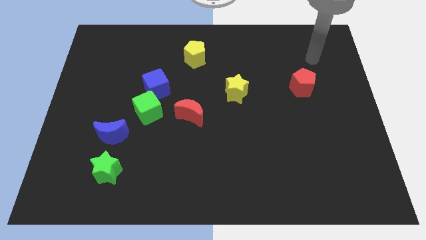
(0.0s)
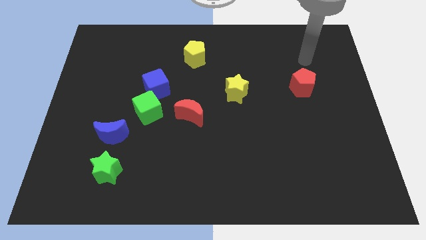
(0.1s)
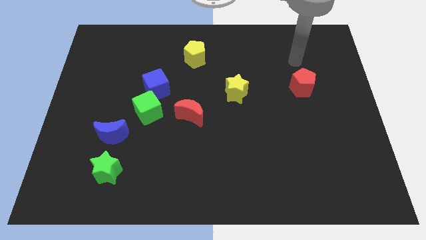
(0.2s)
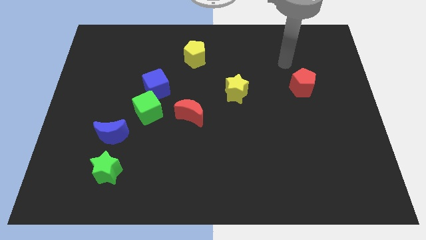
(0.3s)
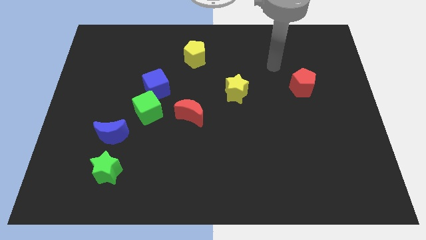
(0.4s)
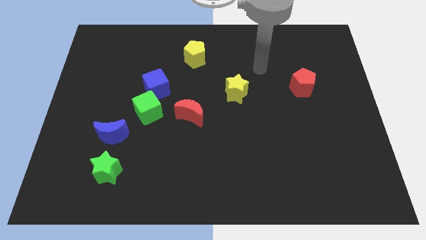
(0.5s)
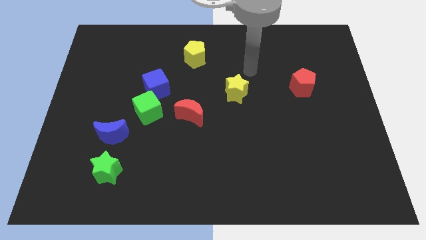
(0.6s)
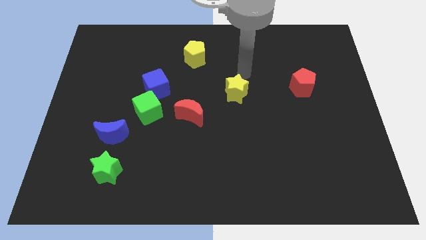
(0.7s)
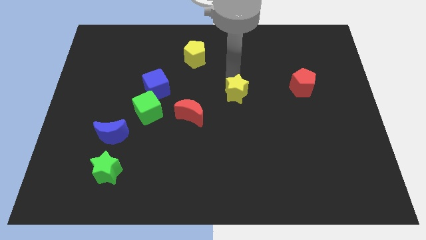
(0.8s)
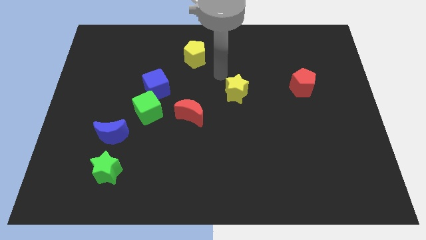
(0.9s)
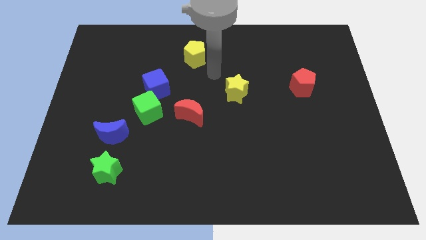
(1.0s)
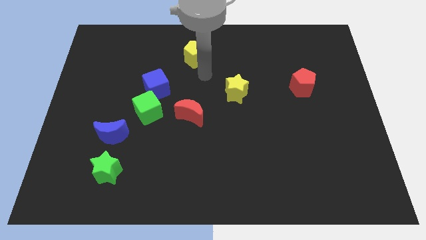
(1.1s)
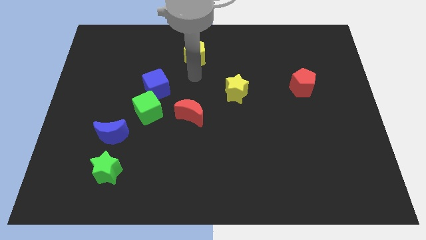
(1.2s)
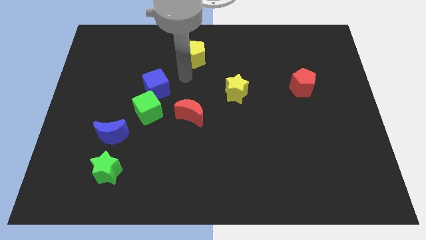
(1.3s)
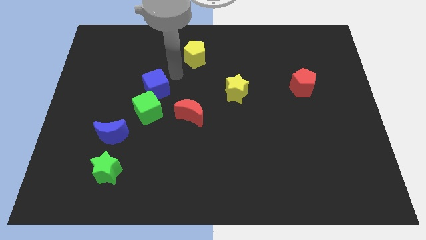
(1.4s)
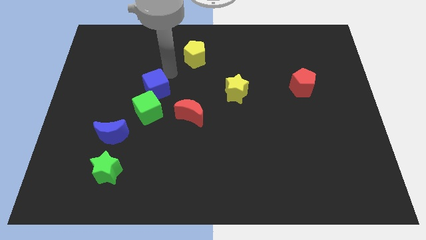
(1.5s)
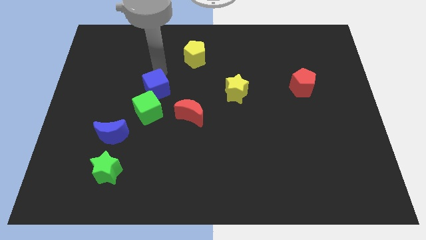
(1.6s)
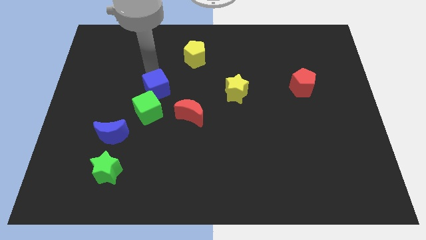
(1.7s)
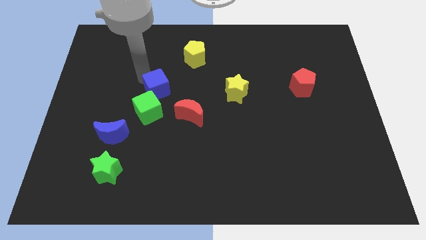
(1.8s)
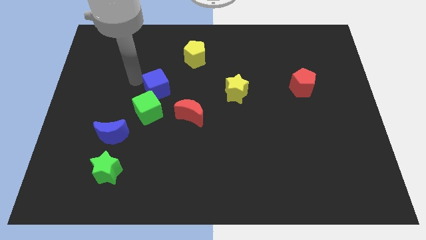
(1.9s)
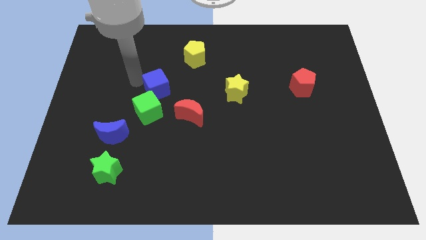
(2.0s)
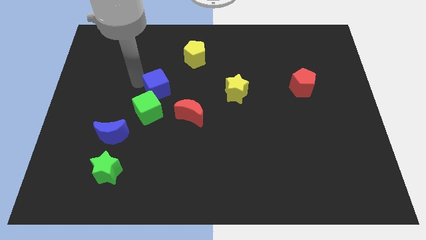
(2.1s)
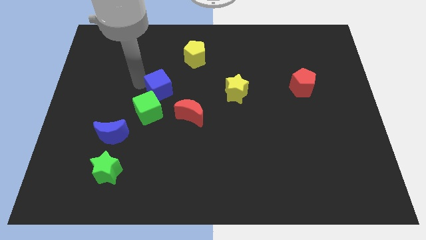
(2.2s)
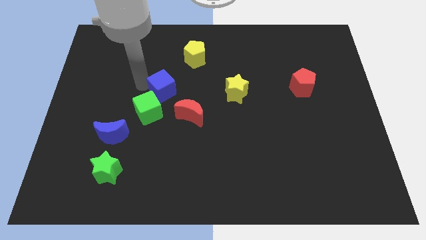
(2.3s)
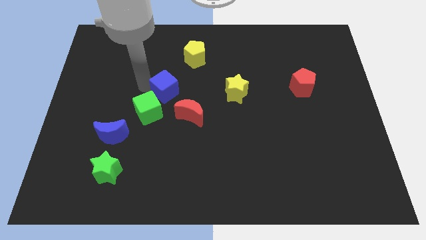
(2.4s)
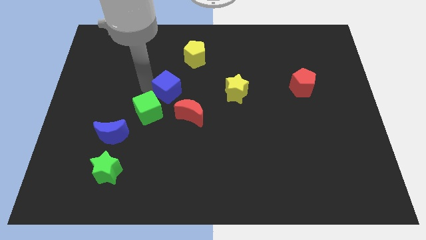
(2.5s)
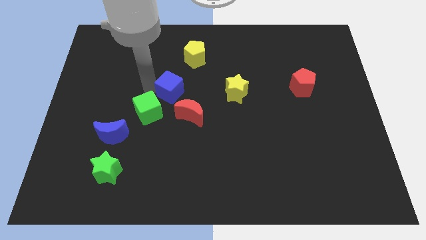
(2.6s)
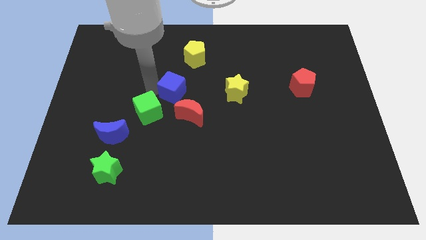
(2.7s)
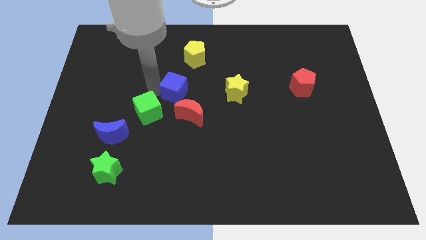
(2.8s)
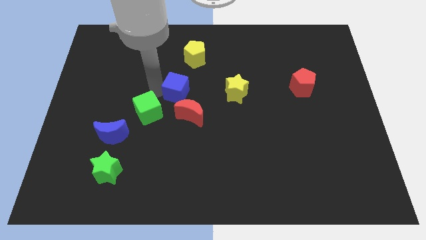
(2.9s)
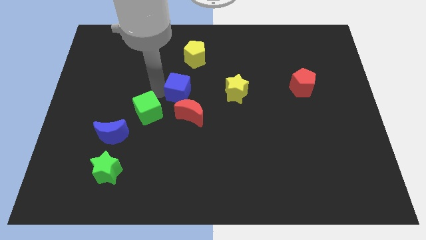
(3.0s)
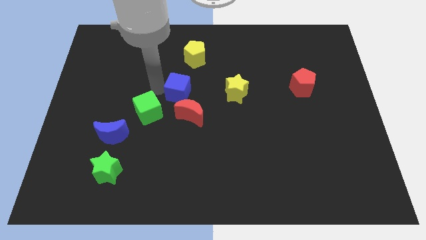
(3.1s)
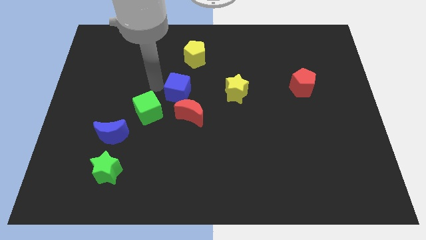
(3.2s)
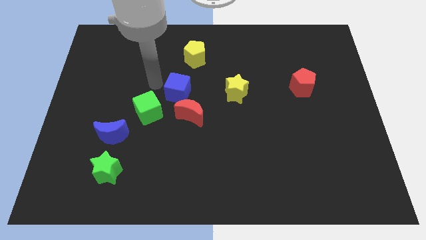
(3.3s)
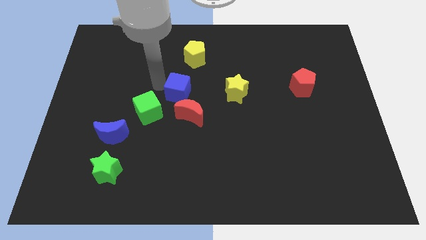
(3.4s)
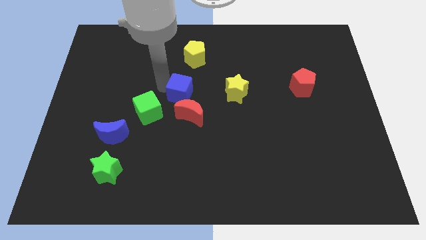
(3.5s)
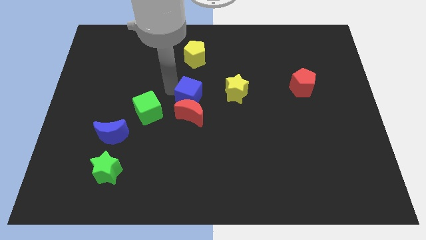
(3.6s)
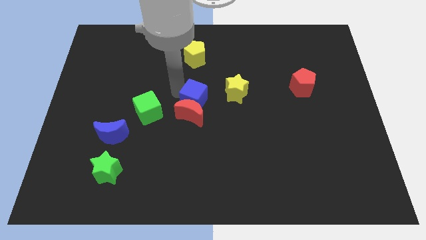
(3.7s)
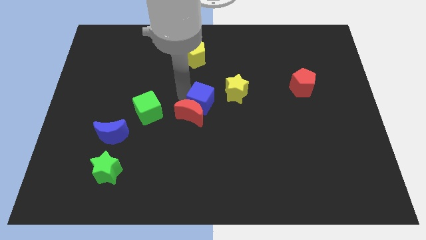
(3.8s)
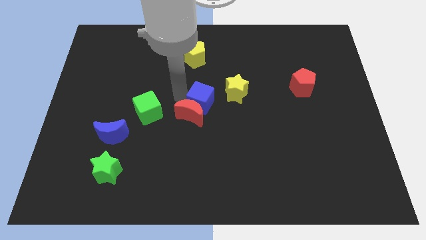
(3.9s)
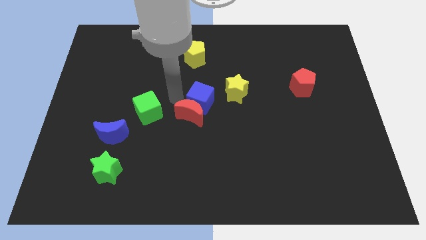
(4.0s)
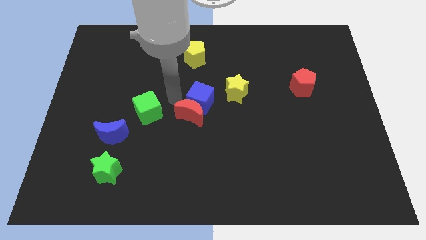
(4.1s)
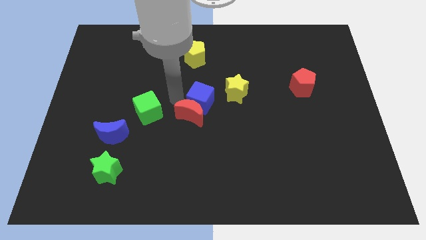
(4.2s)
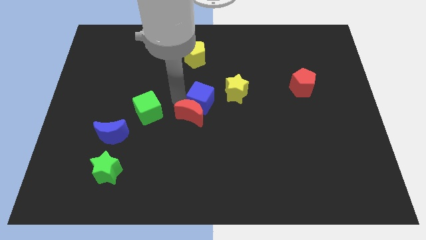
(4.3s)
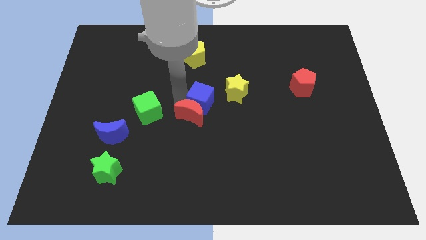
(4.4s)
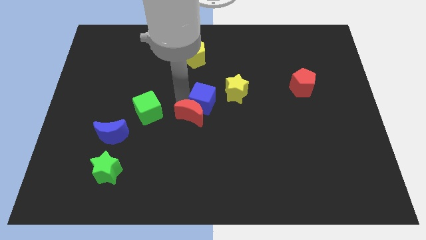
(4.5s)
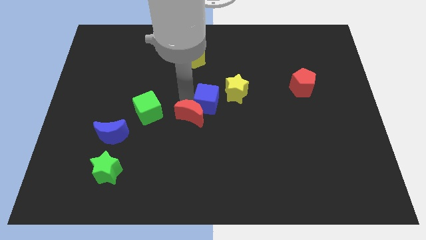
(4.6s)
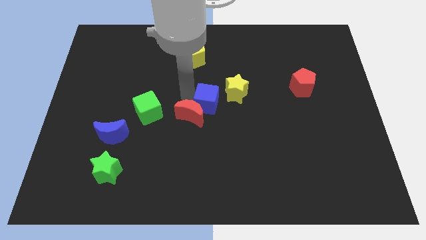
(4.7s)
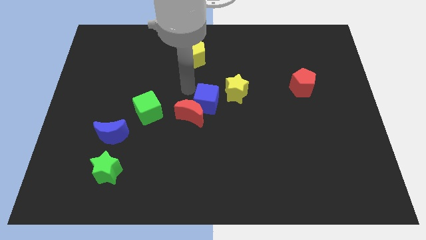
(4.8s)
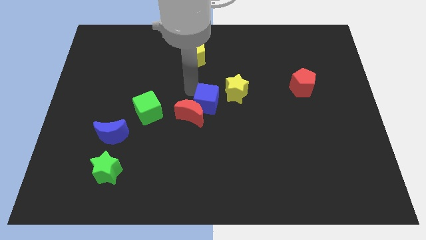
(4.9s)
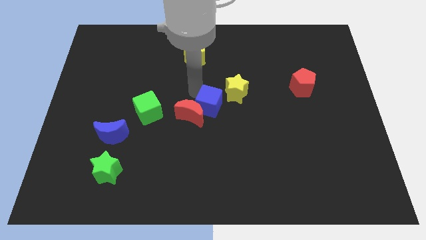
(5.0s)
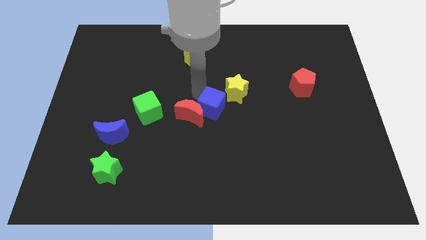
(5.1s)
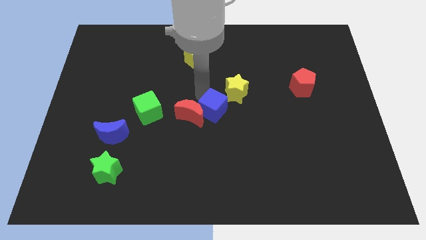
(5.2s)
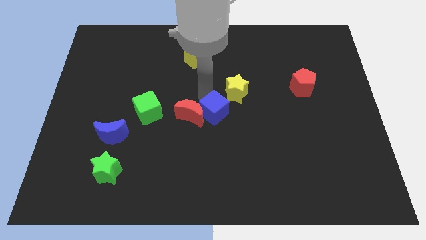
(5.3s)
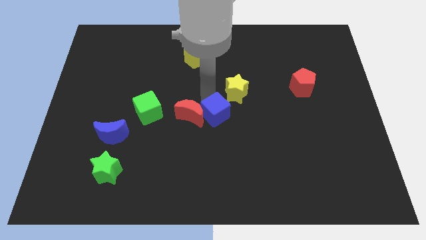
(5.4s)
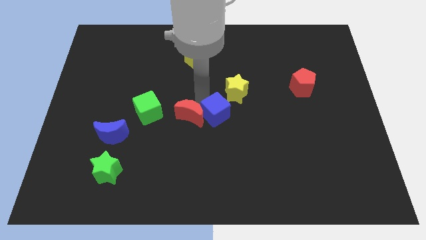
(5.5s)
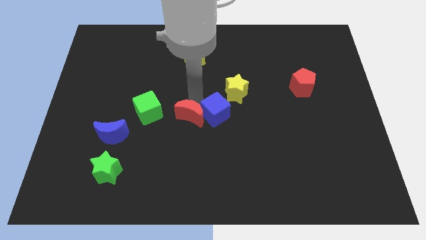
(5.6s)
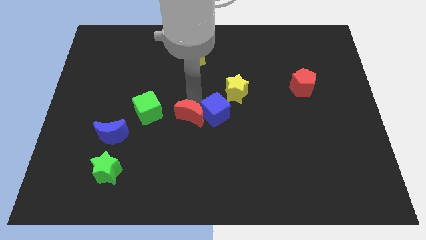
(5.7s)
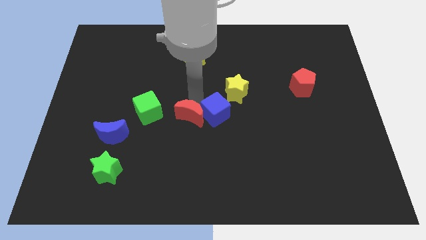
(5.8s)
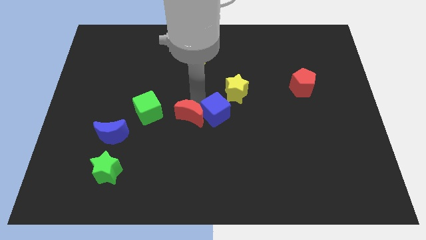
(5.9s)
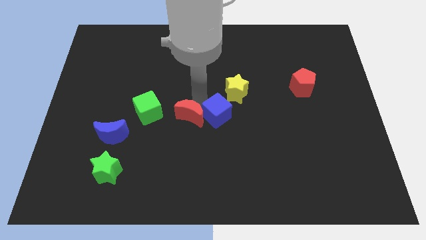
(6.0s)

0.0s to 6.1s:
move the blue cube below the yellow star

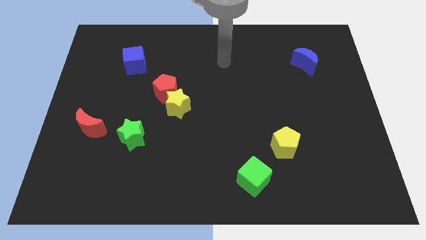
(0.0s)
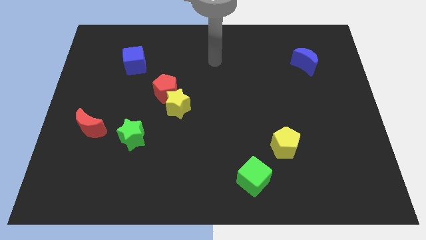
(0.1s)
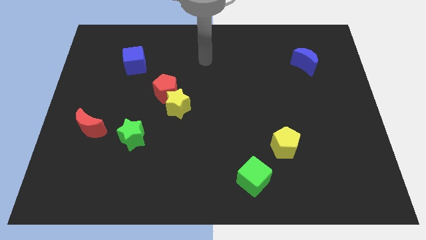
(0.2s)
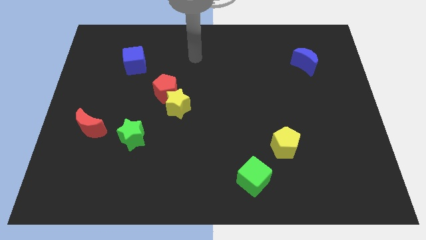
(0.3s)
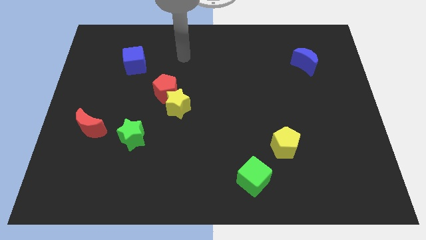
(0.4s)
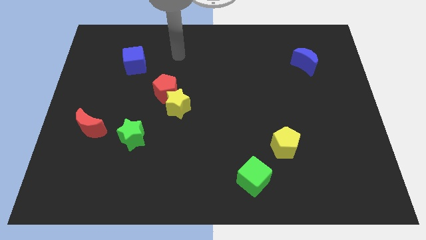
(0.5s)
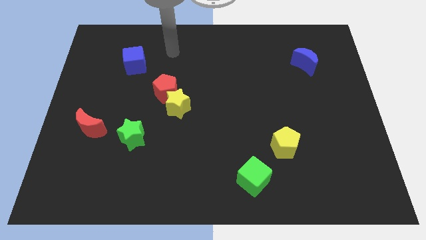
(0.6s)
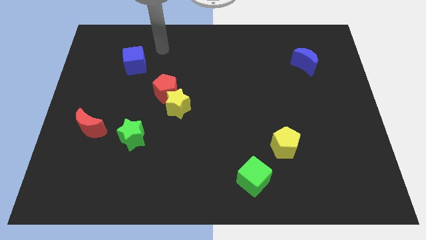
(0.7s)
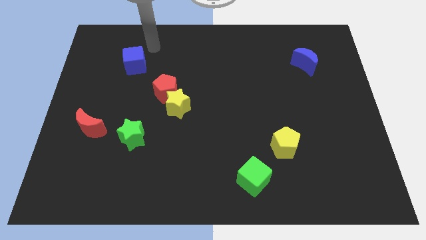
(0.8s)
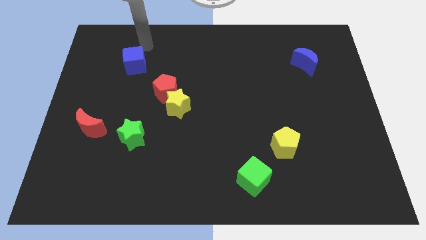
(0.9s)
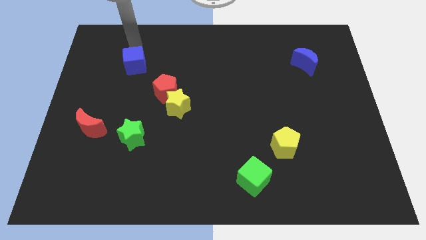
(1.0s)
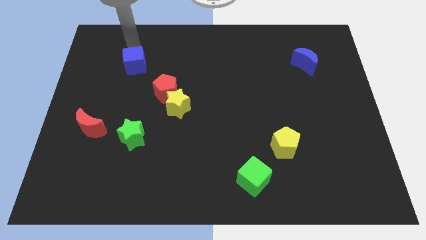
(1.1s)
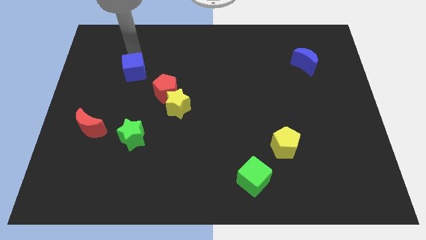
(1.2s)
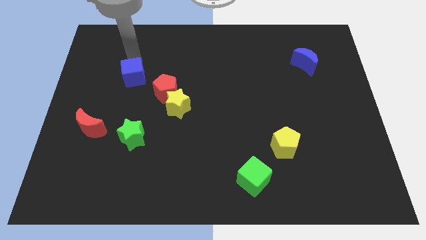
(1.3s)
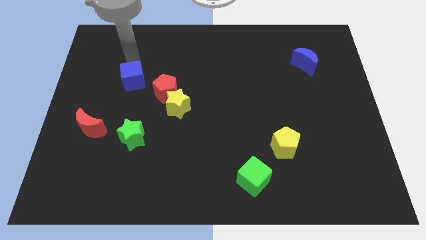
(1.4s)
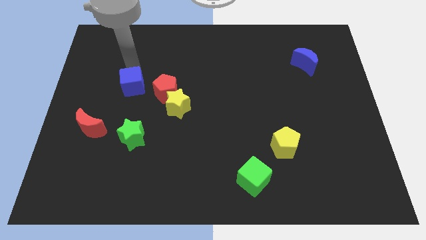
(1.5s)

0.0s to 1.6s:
push the blue cube to the top of the green star
